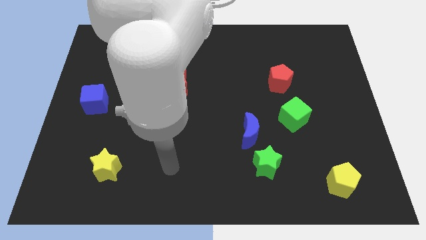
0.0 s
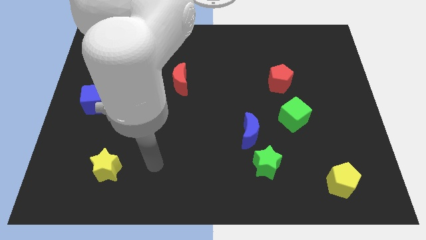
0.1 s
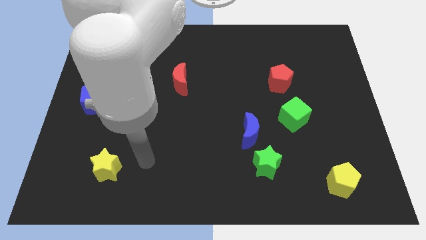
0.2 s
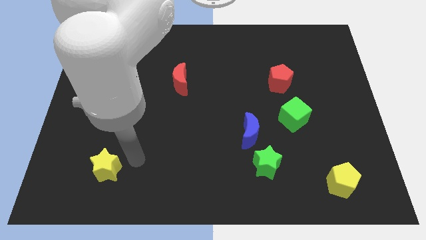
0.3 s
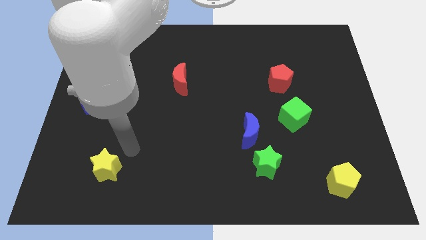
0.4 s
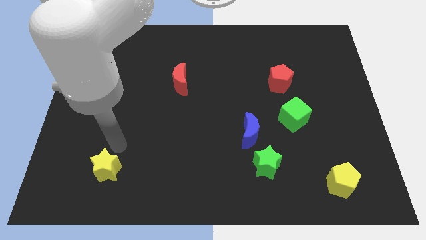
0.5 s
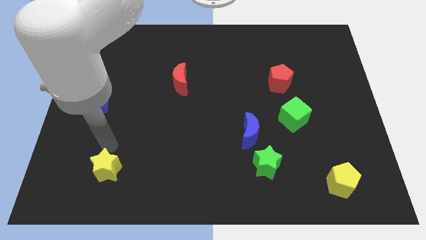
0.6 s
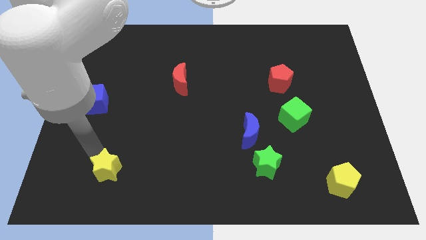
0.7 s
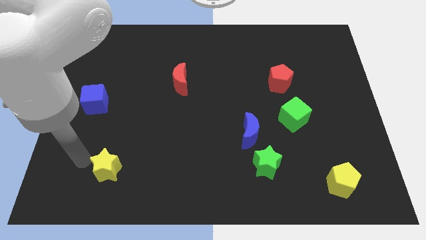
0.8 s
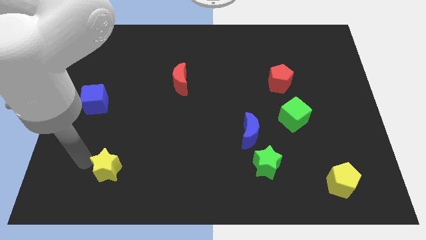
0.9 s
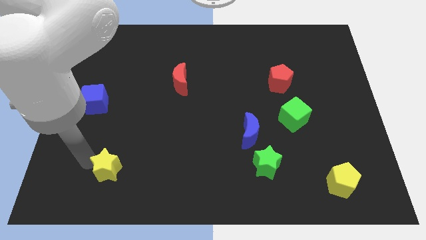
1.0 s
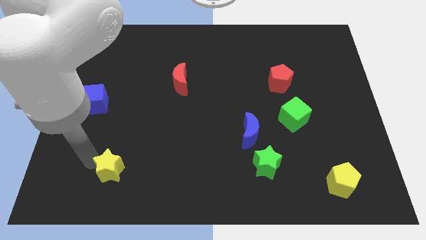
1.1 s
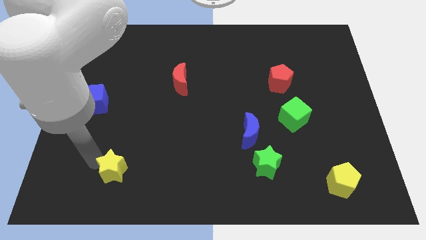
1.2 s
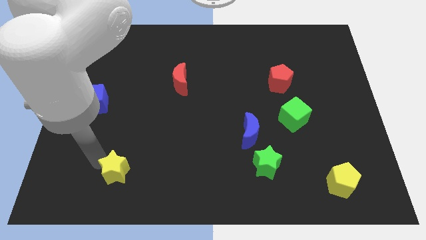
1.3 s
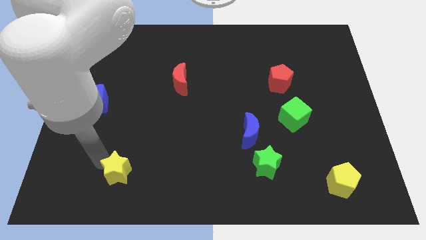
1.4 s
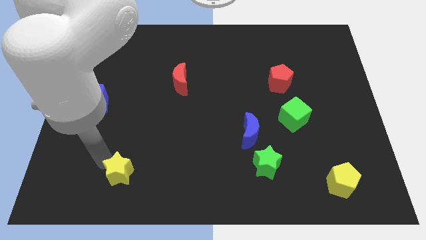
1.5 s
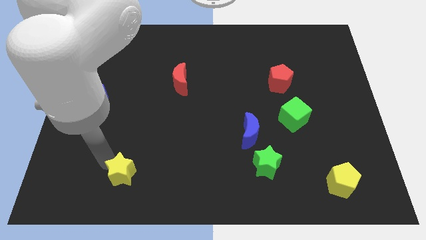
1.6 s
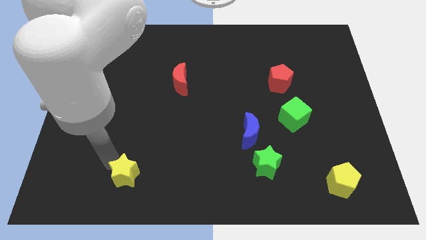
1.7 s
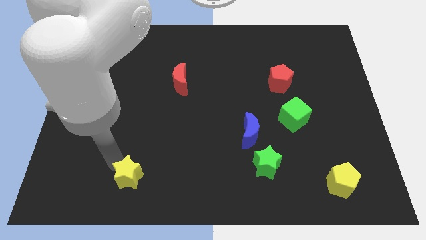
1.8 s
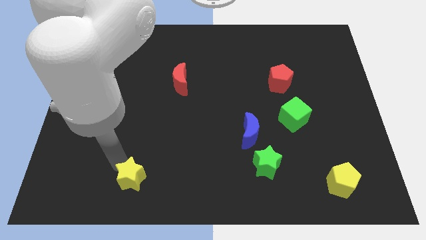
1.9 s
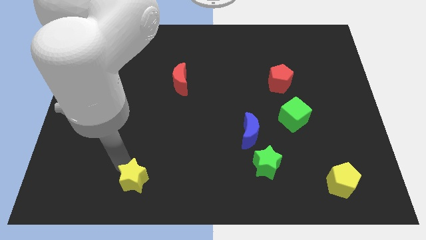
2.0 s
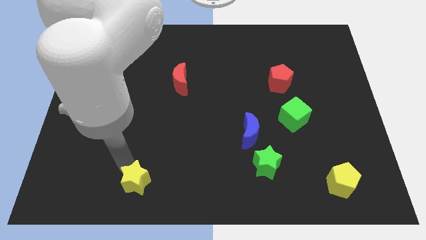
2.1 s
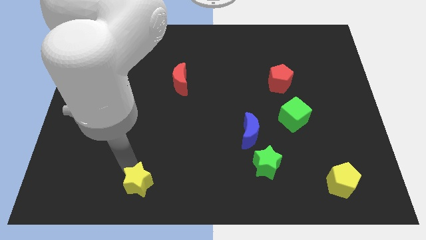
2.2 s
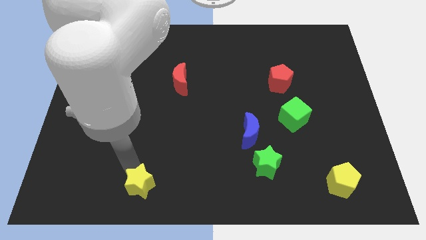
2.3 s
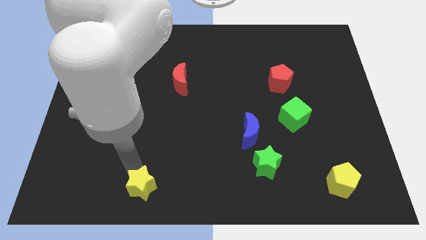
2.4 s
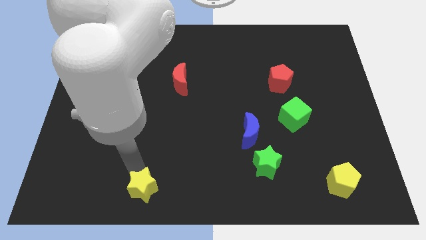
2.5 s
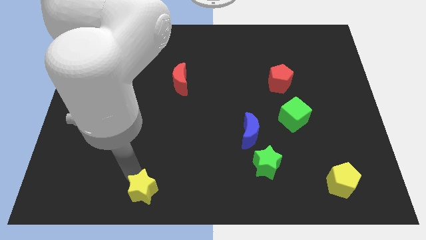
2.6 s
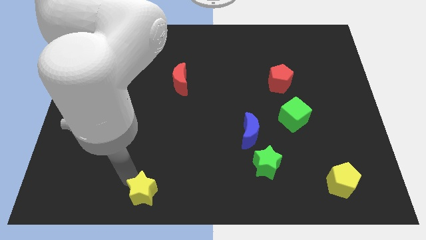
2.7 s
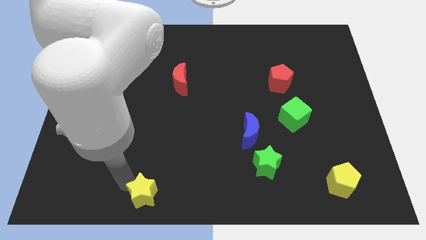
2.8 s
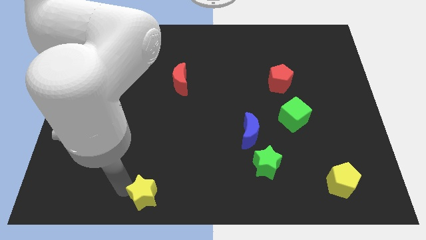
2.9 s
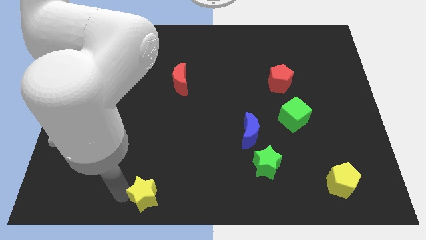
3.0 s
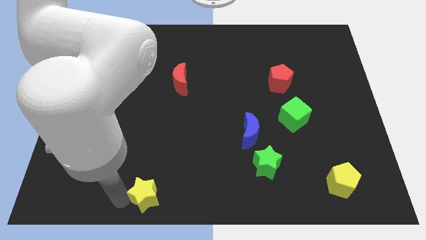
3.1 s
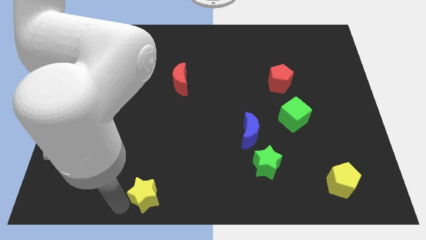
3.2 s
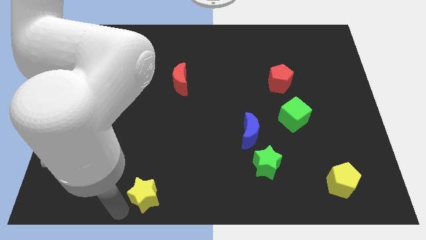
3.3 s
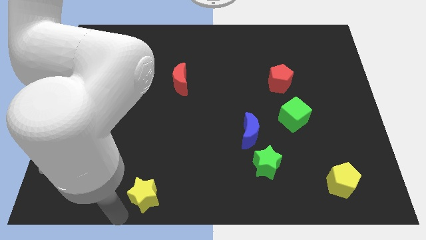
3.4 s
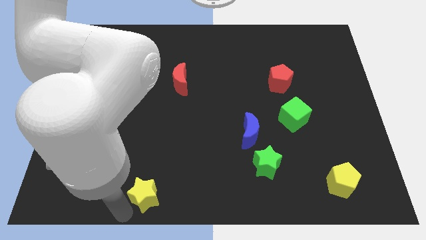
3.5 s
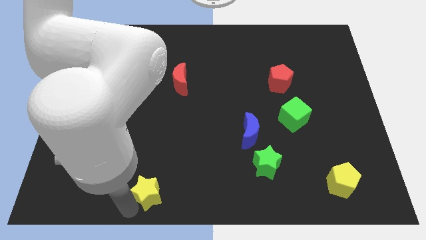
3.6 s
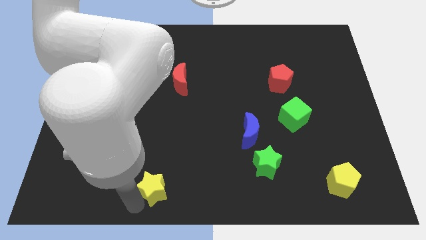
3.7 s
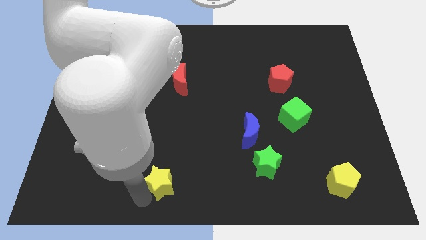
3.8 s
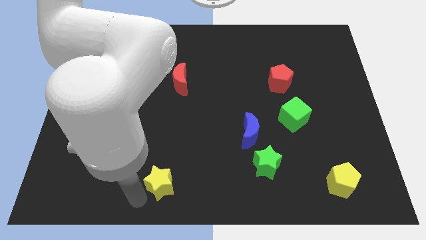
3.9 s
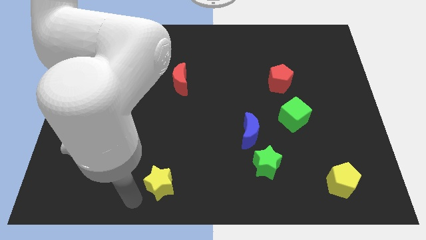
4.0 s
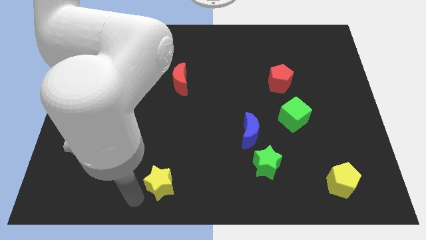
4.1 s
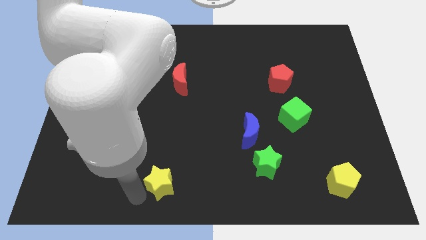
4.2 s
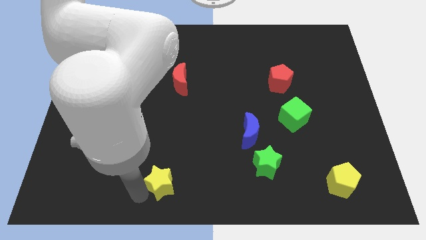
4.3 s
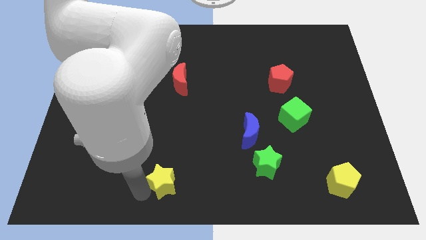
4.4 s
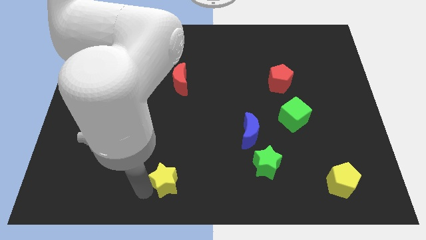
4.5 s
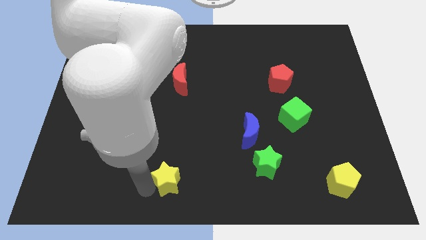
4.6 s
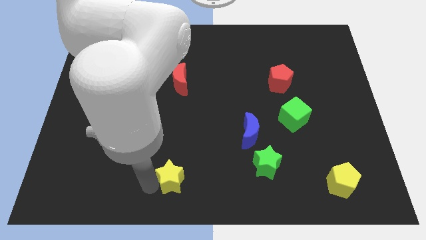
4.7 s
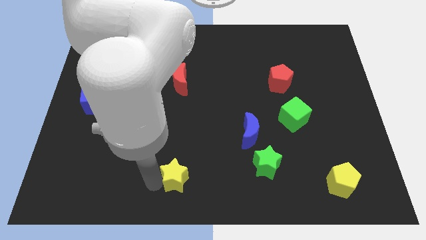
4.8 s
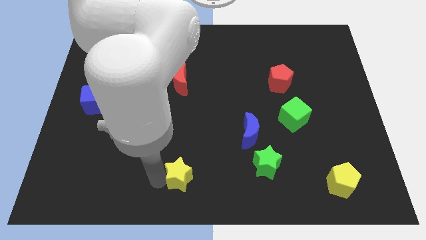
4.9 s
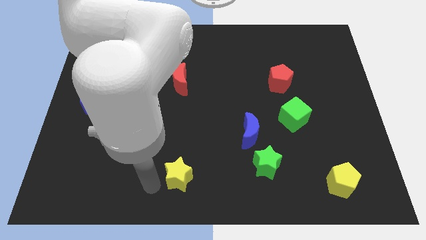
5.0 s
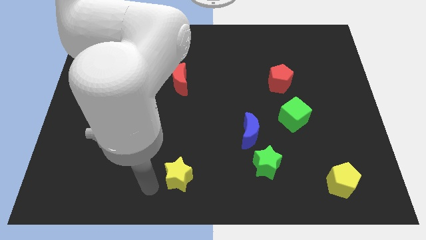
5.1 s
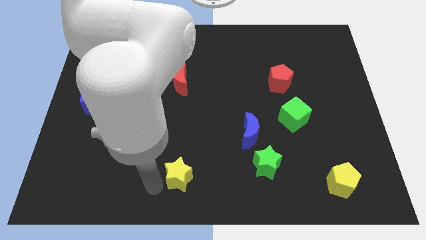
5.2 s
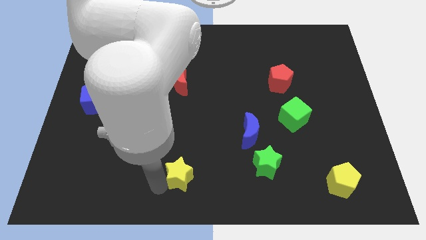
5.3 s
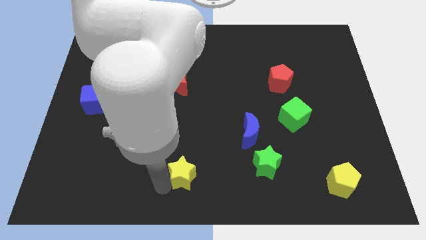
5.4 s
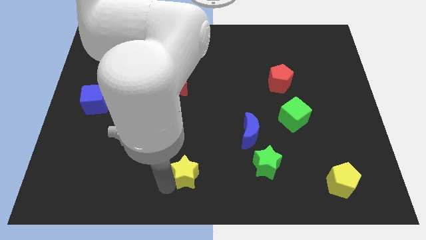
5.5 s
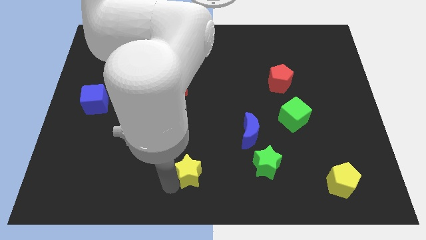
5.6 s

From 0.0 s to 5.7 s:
move the yellow star to the left of the green star
